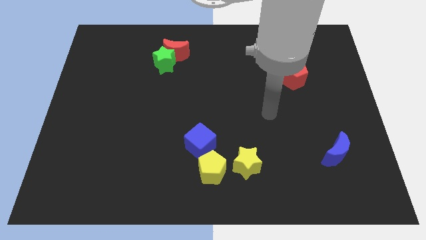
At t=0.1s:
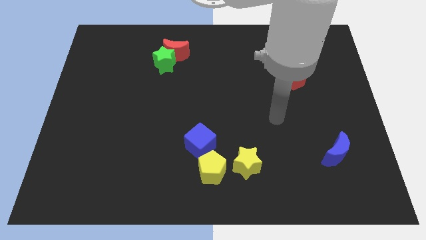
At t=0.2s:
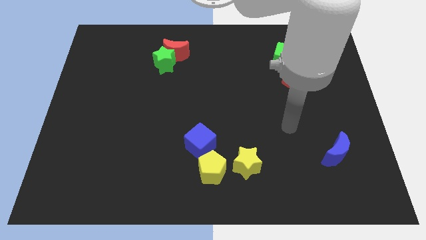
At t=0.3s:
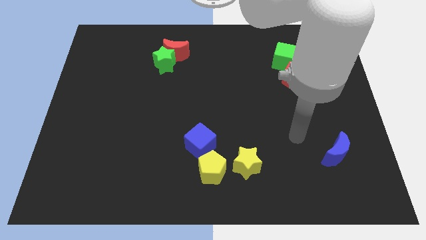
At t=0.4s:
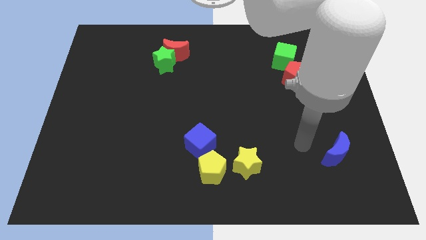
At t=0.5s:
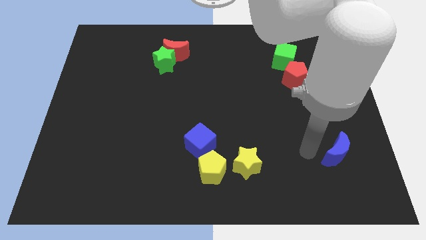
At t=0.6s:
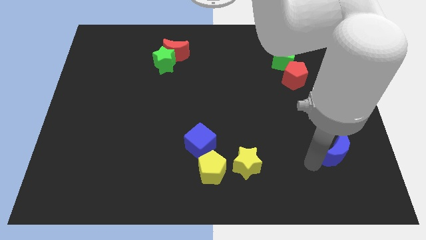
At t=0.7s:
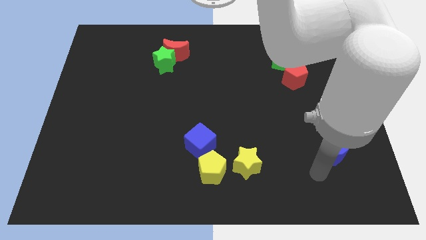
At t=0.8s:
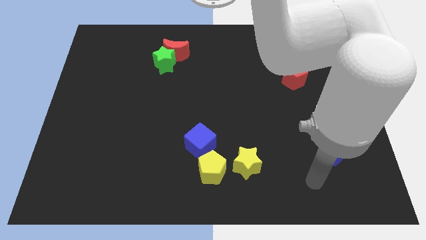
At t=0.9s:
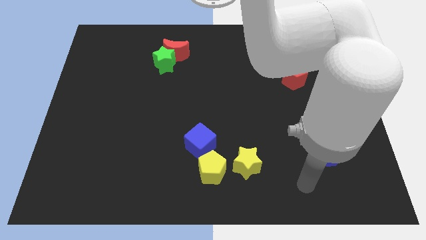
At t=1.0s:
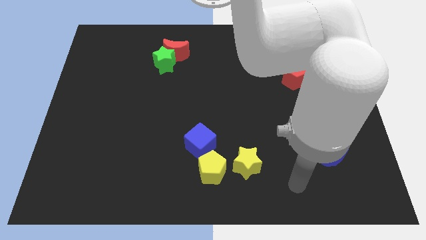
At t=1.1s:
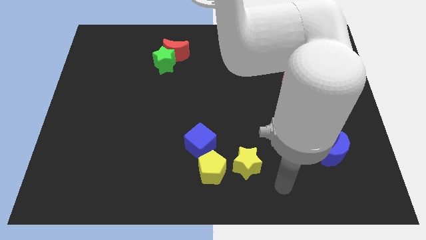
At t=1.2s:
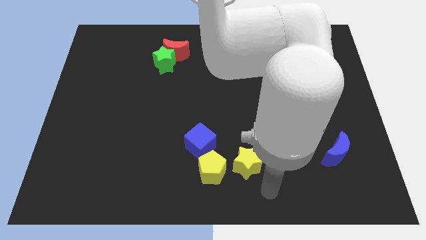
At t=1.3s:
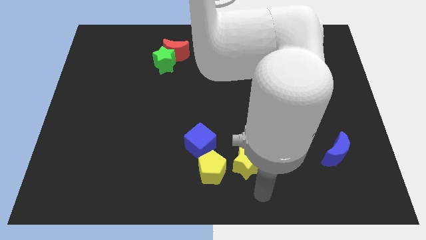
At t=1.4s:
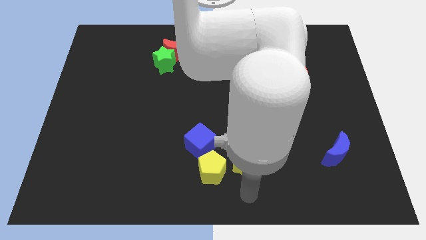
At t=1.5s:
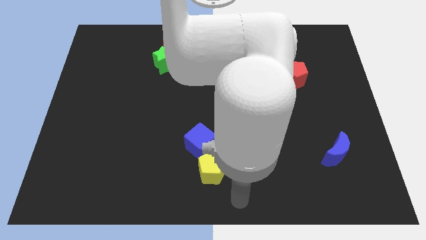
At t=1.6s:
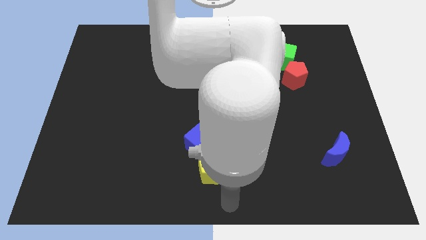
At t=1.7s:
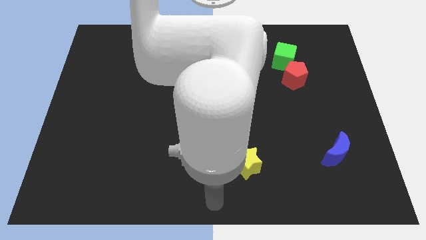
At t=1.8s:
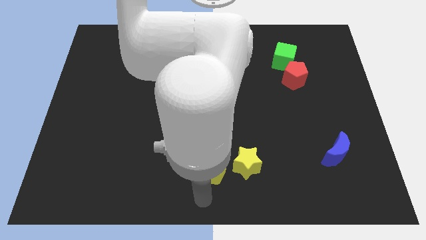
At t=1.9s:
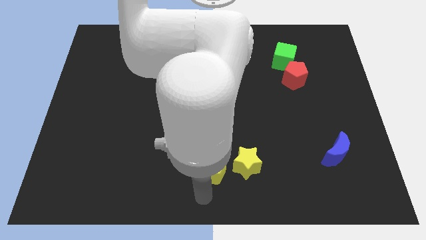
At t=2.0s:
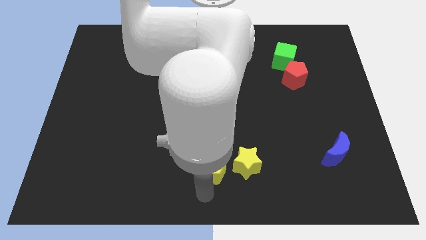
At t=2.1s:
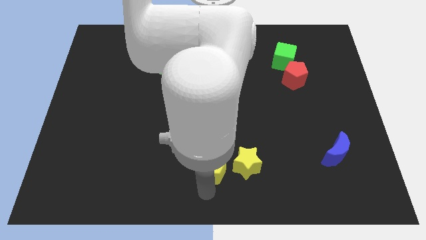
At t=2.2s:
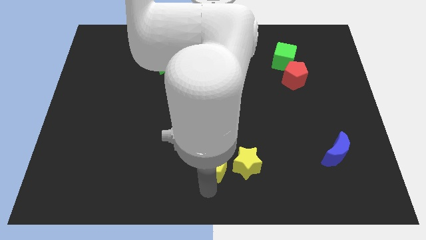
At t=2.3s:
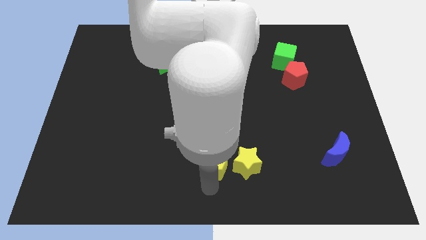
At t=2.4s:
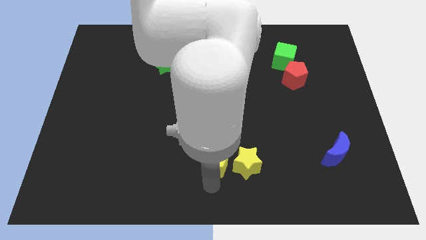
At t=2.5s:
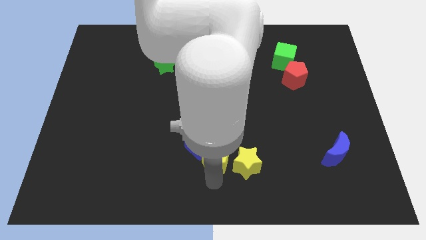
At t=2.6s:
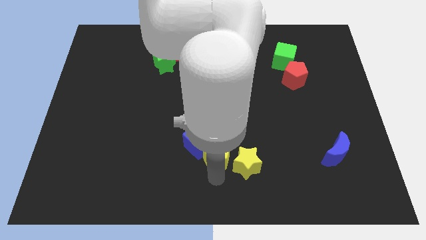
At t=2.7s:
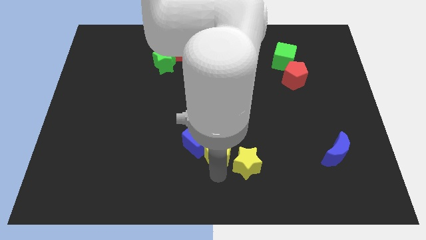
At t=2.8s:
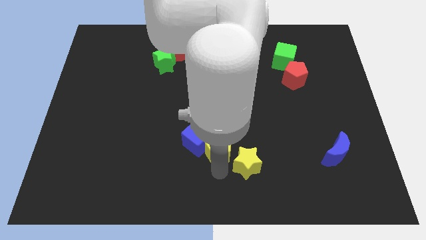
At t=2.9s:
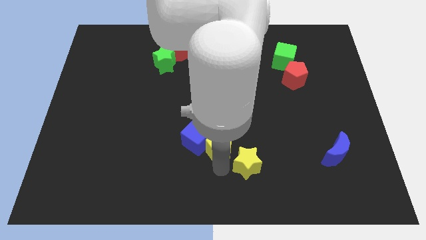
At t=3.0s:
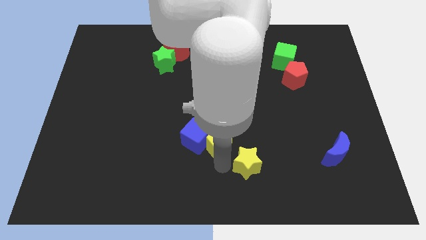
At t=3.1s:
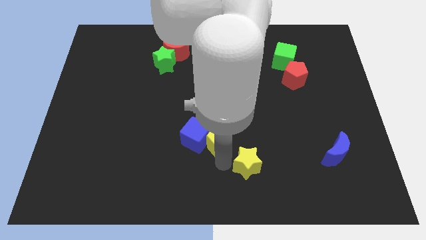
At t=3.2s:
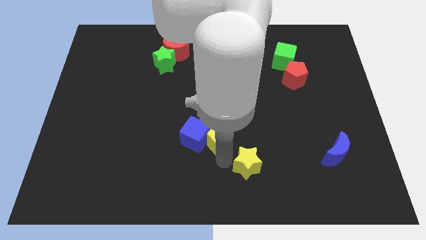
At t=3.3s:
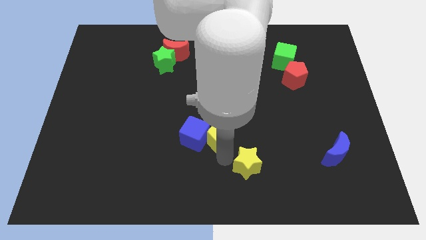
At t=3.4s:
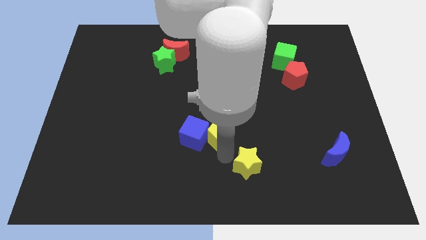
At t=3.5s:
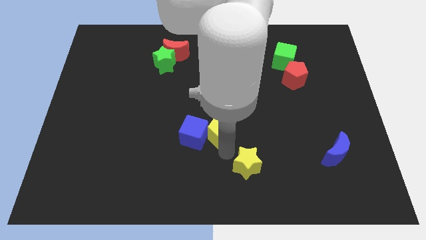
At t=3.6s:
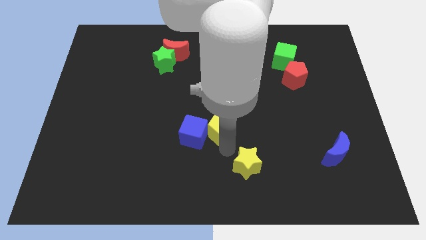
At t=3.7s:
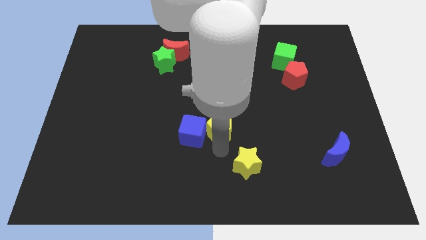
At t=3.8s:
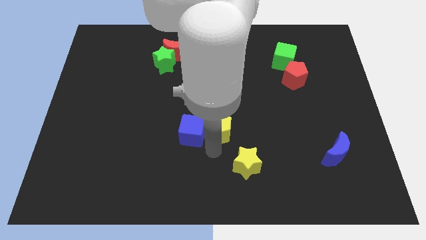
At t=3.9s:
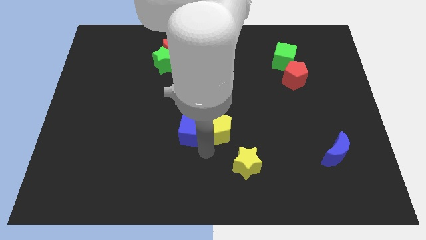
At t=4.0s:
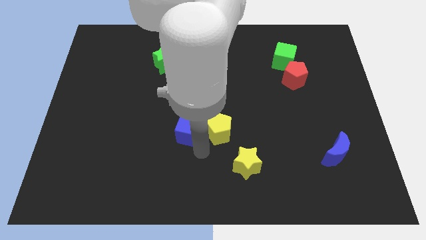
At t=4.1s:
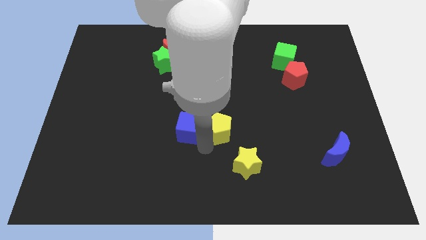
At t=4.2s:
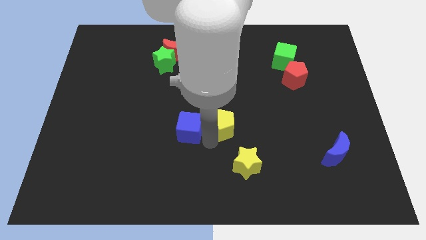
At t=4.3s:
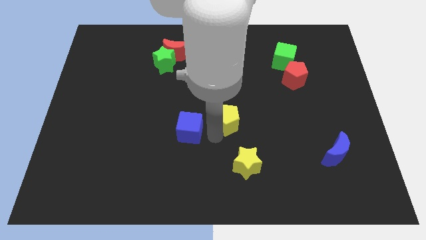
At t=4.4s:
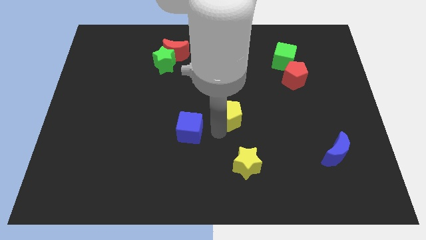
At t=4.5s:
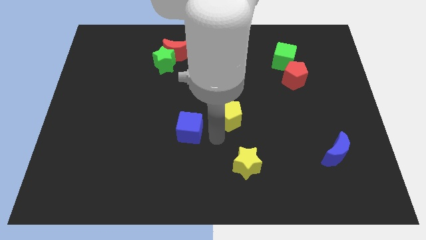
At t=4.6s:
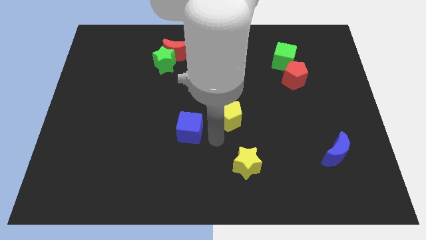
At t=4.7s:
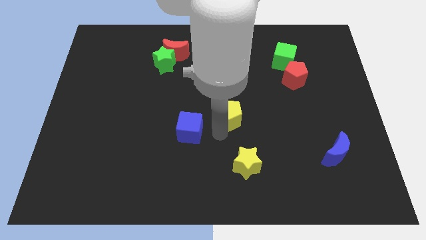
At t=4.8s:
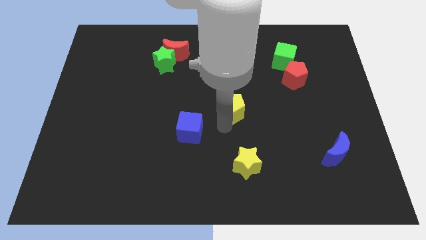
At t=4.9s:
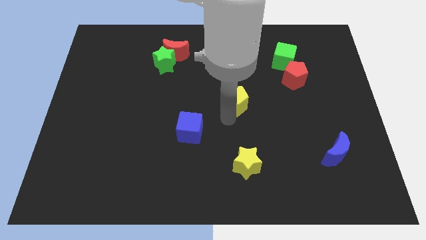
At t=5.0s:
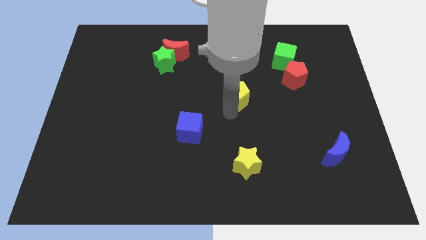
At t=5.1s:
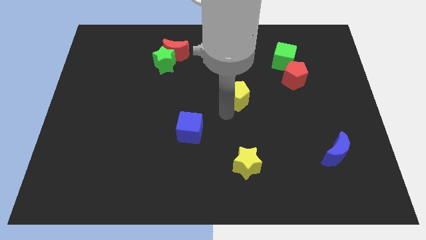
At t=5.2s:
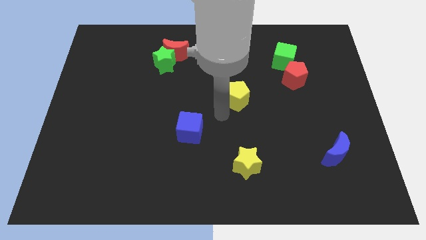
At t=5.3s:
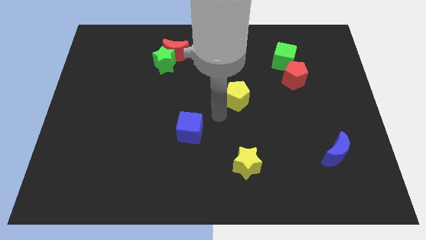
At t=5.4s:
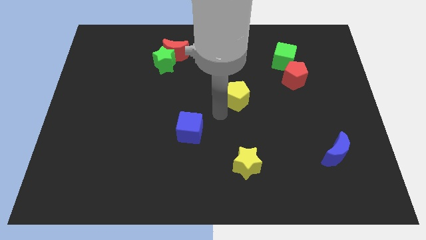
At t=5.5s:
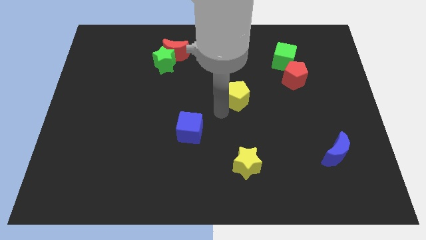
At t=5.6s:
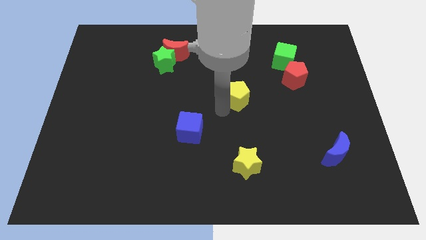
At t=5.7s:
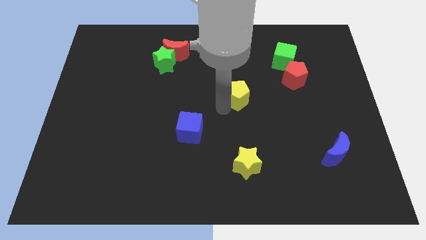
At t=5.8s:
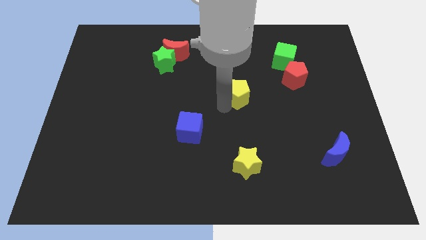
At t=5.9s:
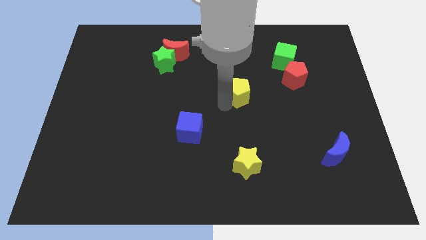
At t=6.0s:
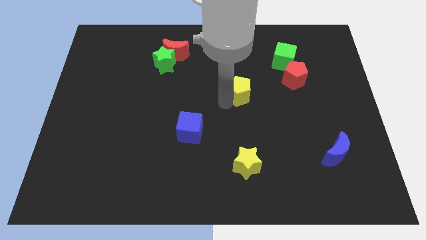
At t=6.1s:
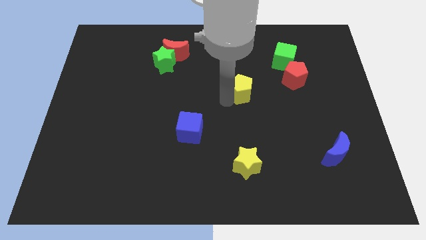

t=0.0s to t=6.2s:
push the yellow pentagon left of the red pentagon

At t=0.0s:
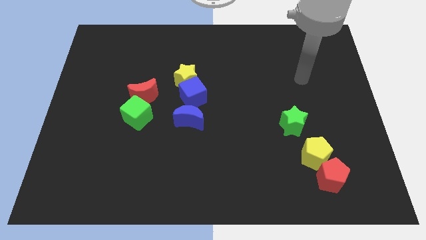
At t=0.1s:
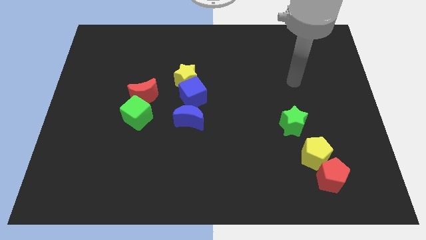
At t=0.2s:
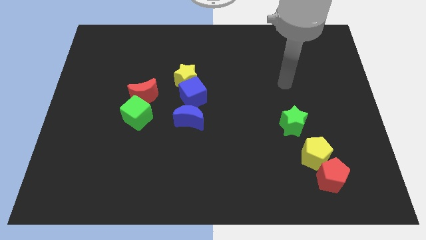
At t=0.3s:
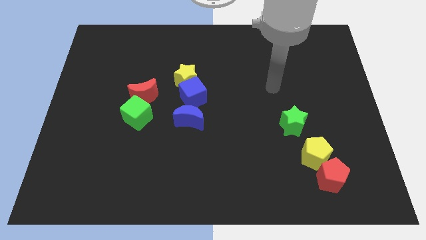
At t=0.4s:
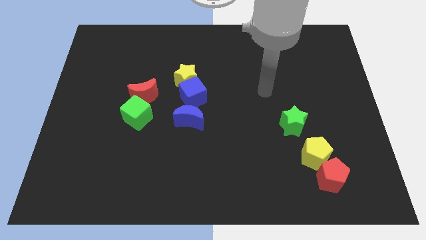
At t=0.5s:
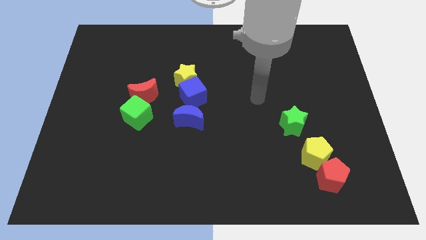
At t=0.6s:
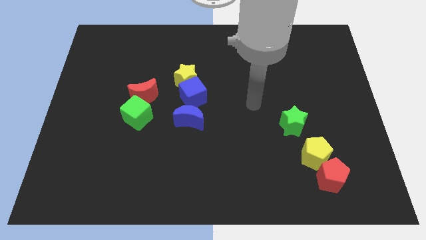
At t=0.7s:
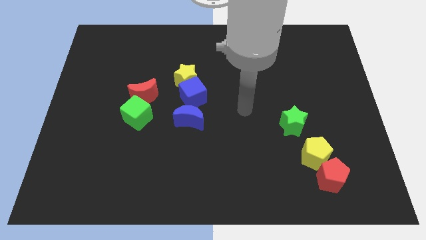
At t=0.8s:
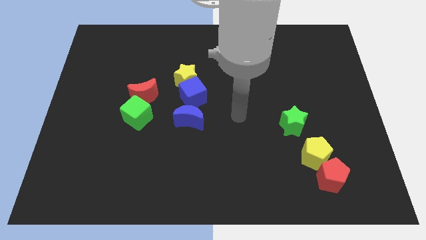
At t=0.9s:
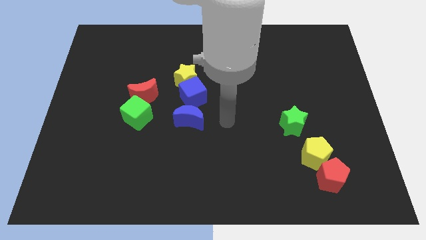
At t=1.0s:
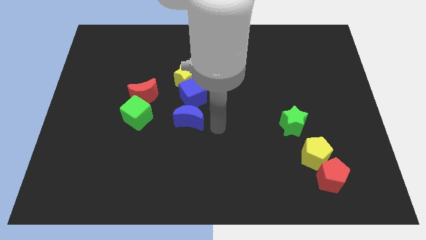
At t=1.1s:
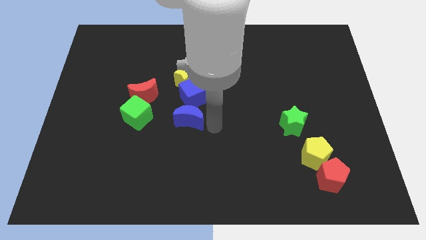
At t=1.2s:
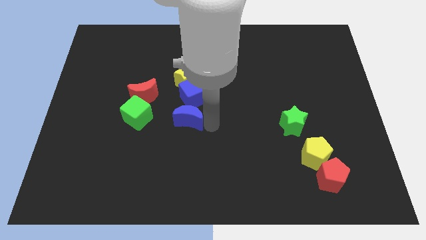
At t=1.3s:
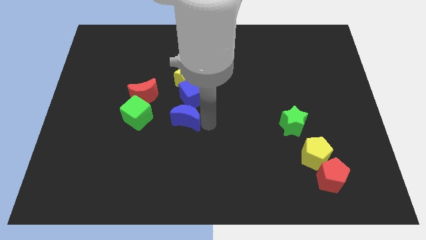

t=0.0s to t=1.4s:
slide the blue moon diagonally down and to the right of the red moon
